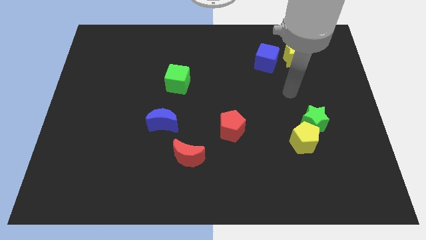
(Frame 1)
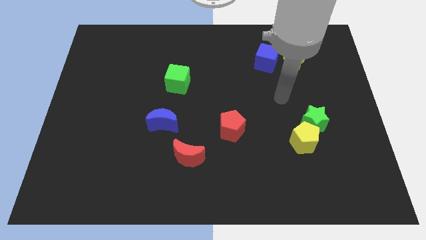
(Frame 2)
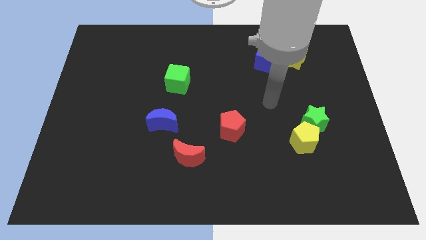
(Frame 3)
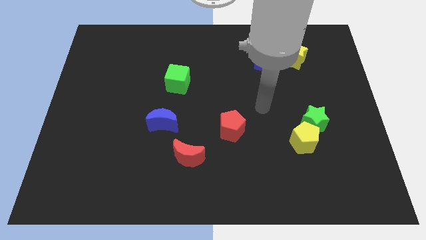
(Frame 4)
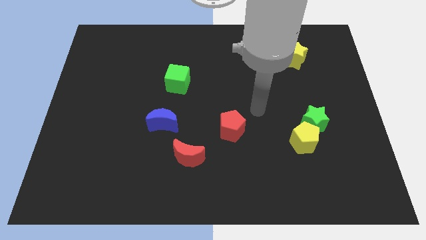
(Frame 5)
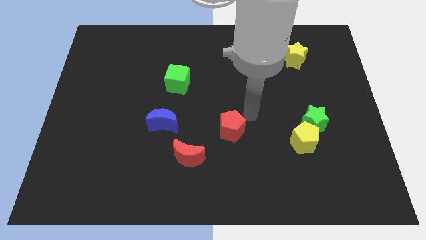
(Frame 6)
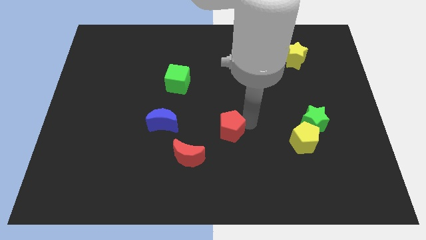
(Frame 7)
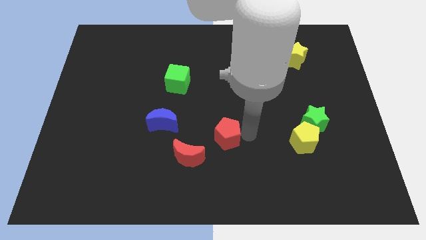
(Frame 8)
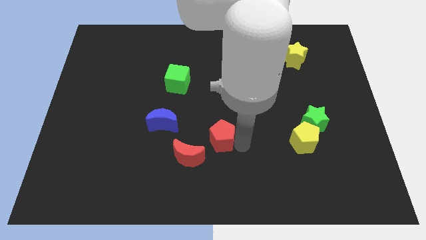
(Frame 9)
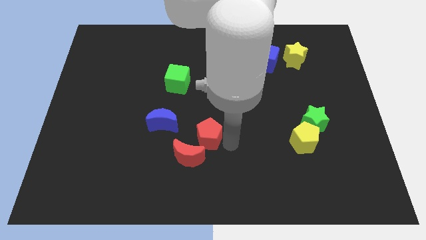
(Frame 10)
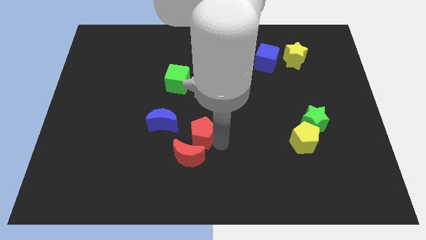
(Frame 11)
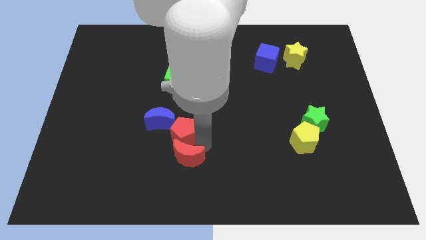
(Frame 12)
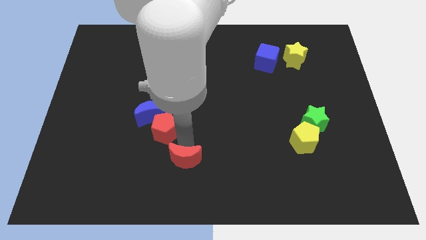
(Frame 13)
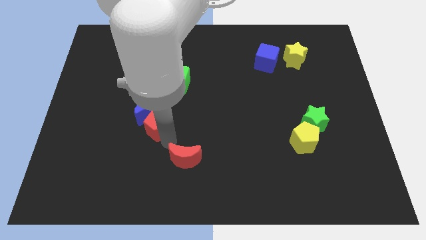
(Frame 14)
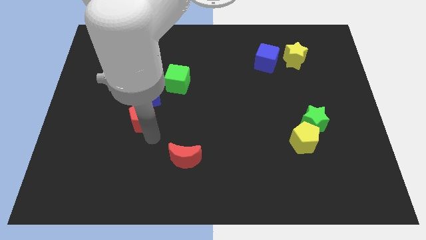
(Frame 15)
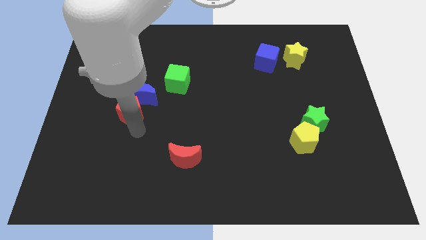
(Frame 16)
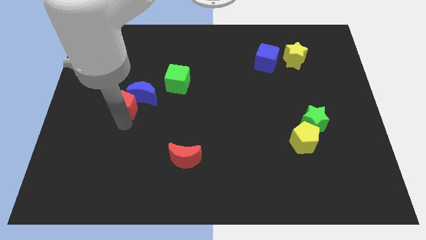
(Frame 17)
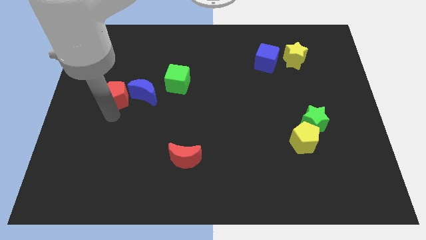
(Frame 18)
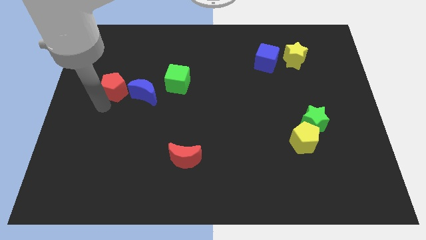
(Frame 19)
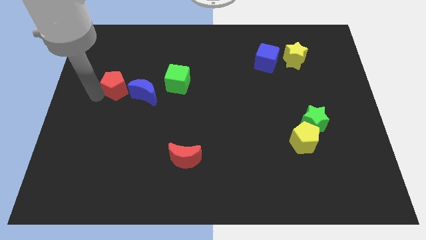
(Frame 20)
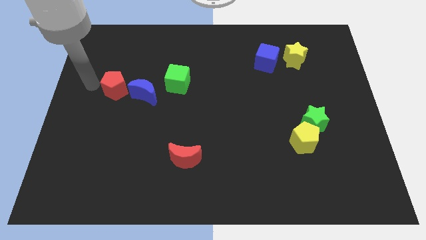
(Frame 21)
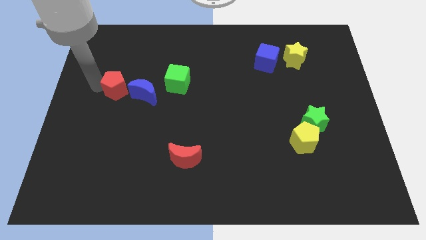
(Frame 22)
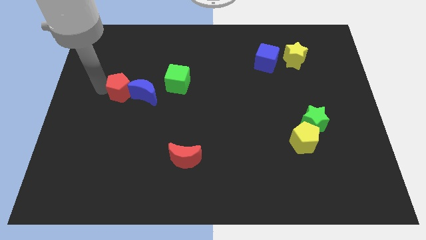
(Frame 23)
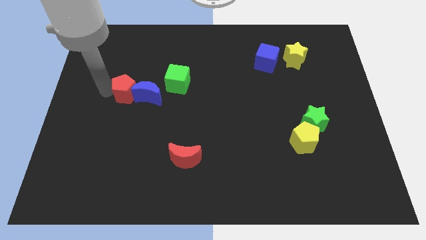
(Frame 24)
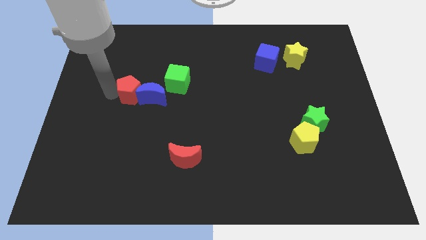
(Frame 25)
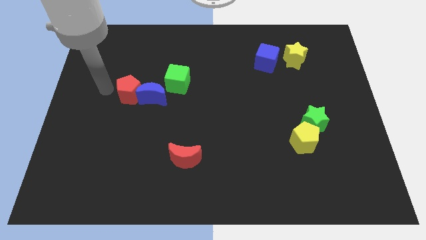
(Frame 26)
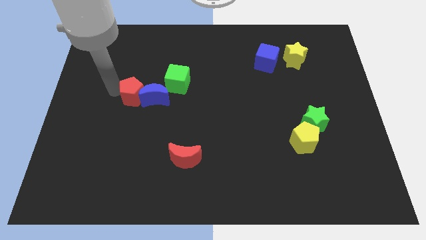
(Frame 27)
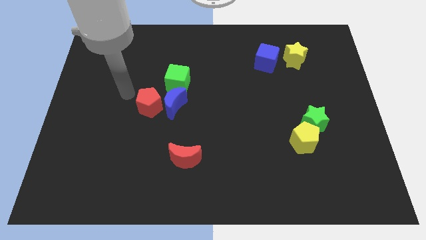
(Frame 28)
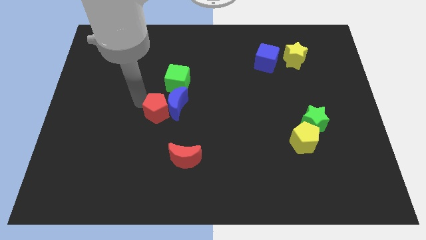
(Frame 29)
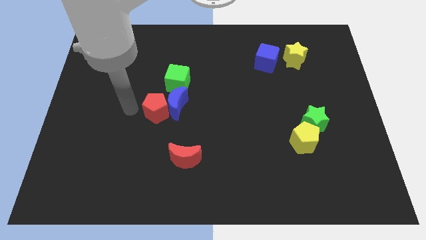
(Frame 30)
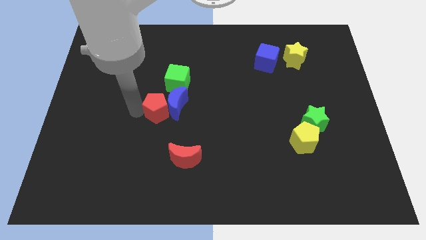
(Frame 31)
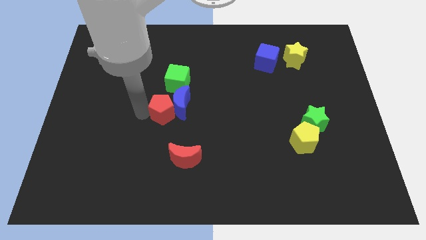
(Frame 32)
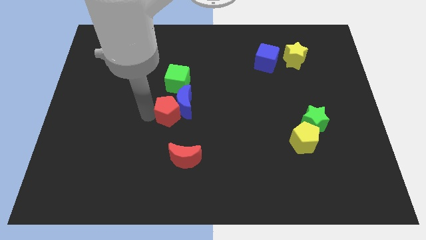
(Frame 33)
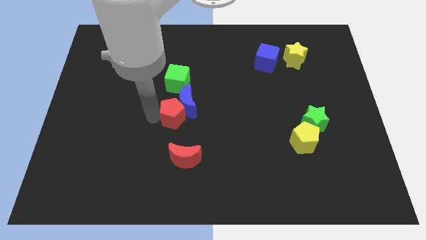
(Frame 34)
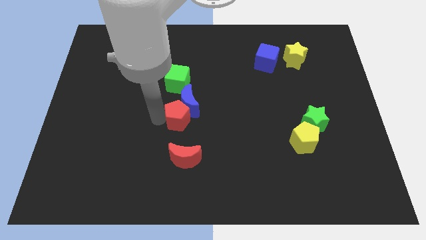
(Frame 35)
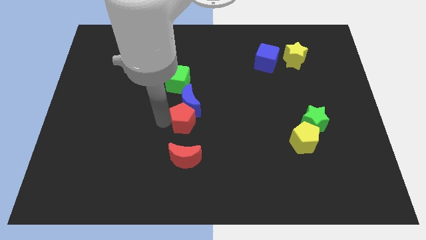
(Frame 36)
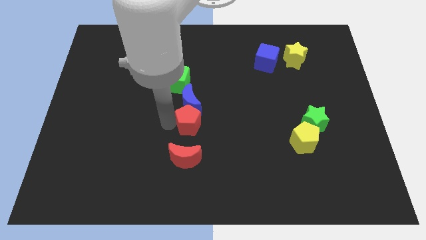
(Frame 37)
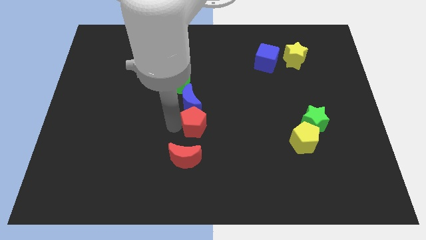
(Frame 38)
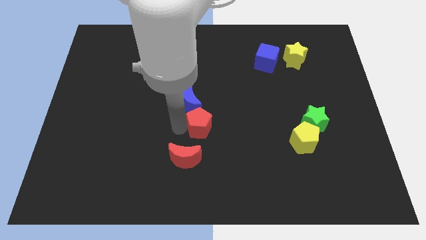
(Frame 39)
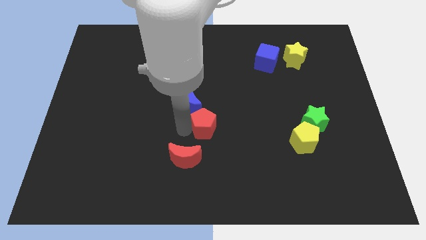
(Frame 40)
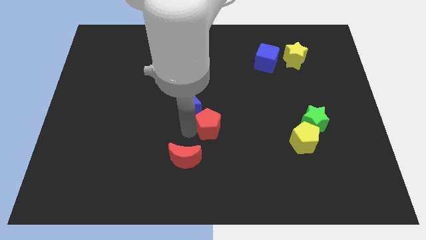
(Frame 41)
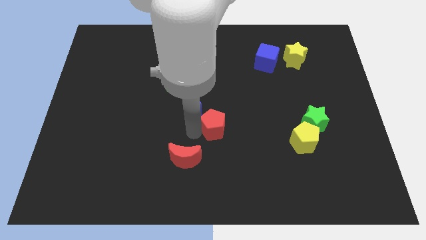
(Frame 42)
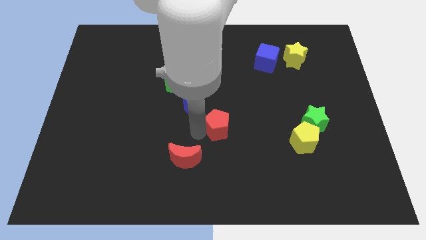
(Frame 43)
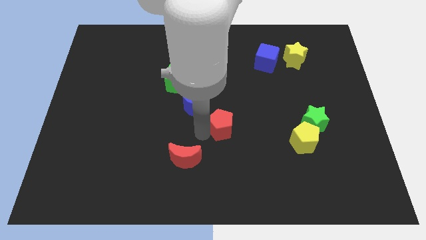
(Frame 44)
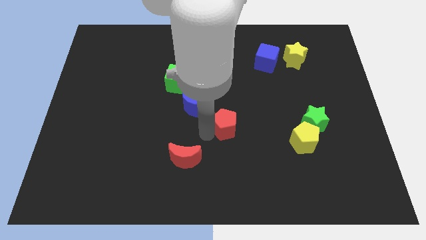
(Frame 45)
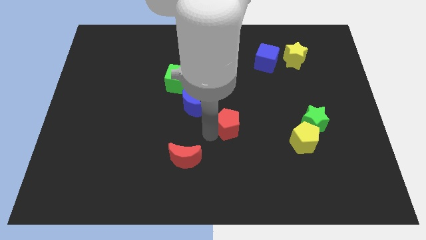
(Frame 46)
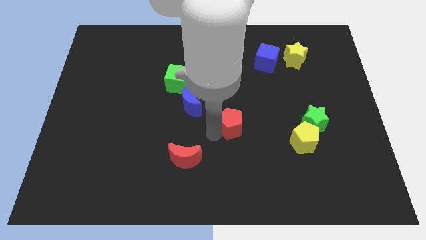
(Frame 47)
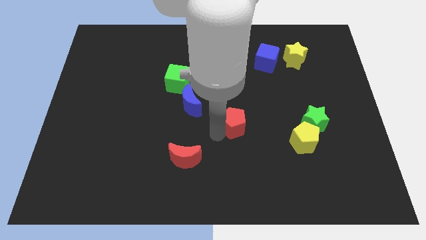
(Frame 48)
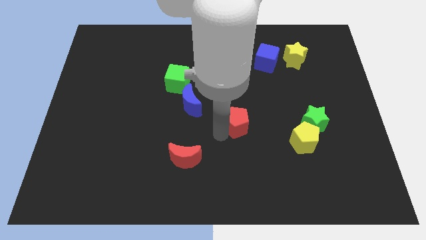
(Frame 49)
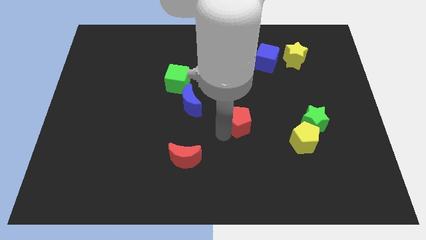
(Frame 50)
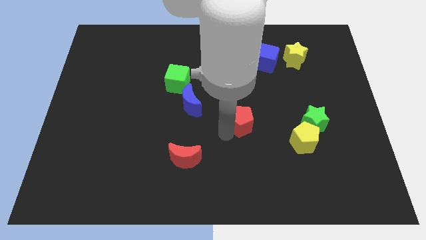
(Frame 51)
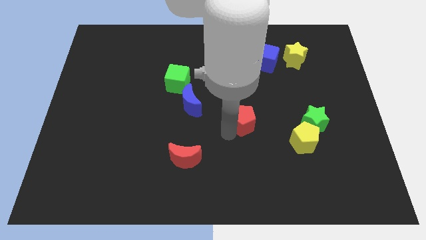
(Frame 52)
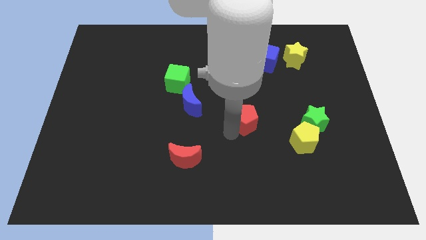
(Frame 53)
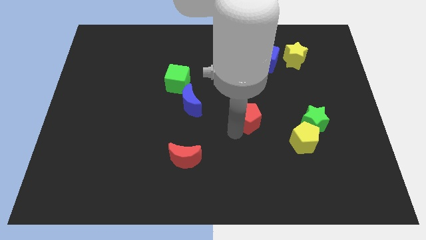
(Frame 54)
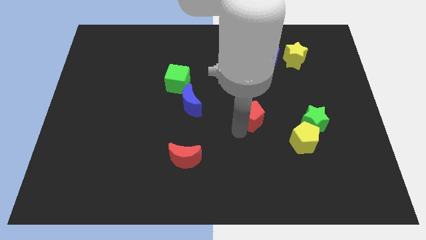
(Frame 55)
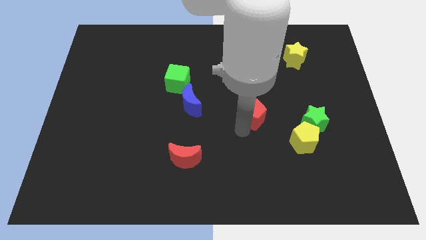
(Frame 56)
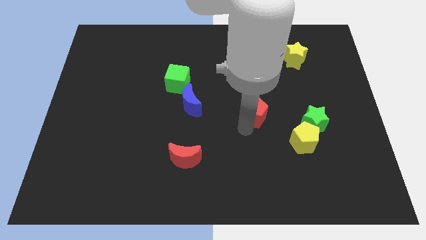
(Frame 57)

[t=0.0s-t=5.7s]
move the red pentagon a bit diagonally up and to the right

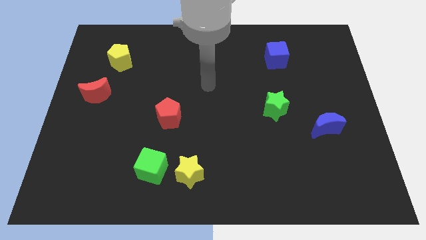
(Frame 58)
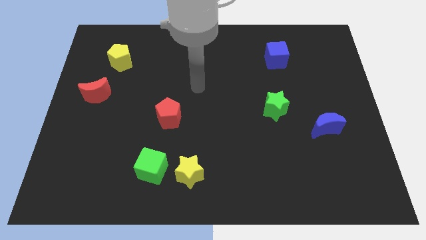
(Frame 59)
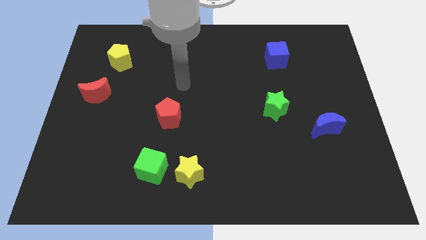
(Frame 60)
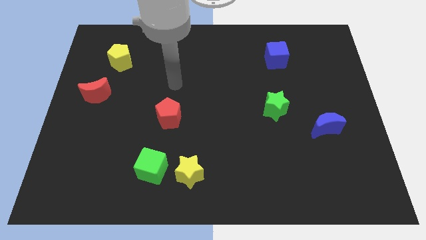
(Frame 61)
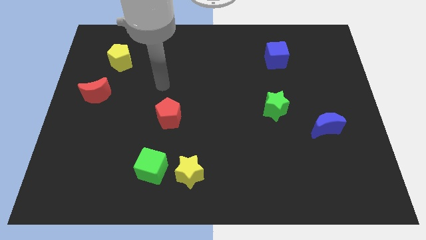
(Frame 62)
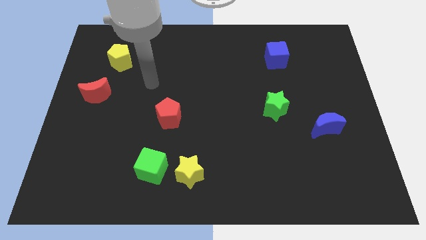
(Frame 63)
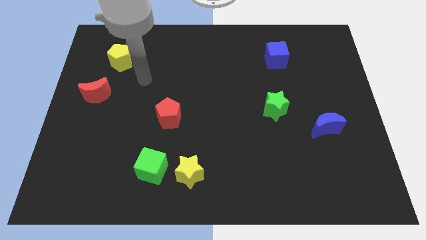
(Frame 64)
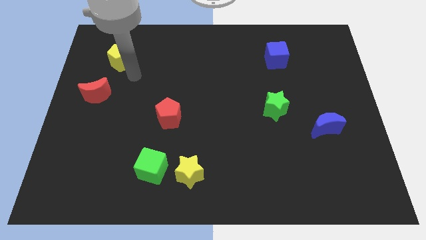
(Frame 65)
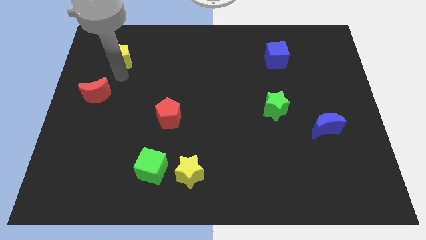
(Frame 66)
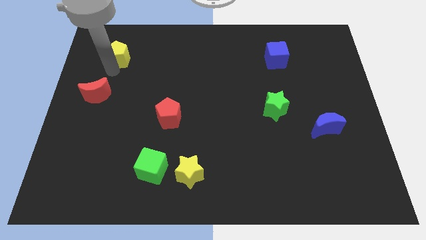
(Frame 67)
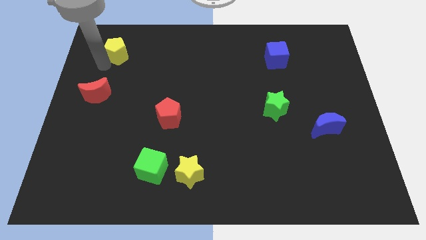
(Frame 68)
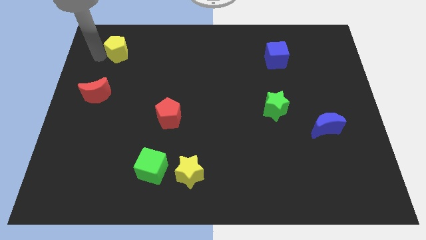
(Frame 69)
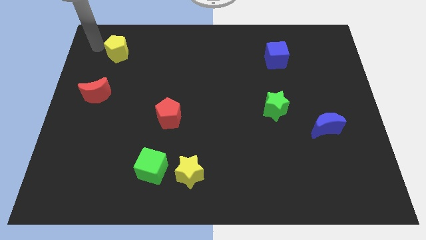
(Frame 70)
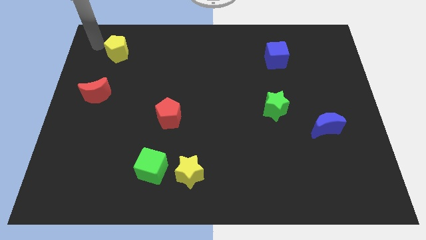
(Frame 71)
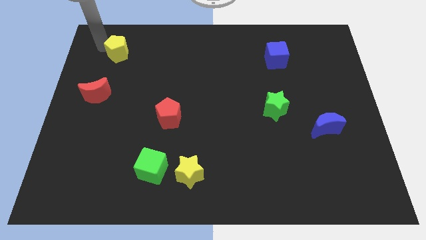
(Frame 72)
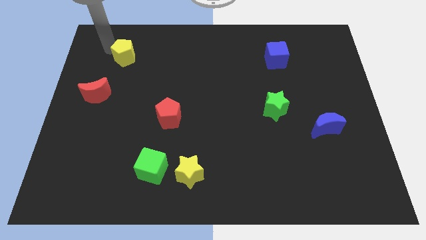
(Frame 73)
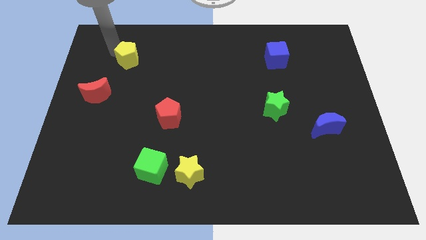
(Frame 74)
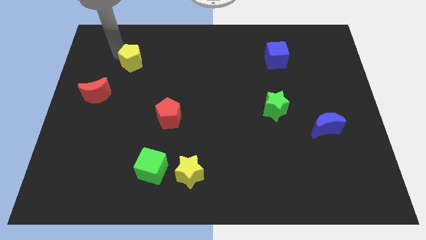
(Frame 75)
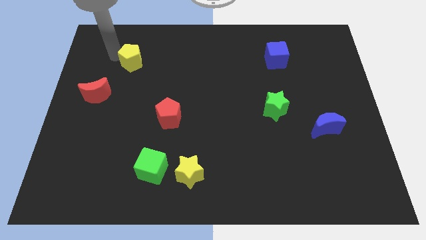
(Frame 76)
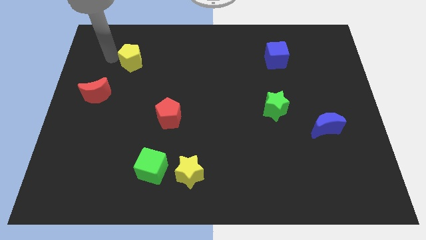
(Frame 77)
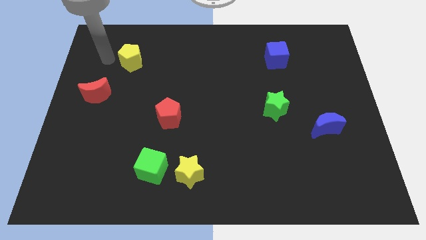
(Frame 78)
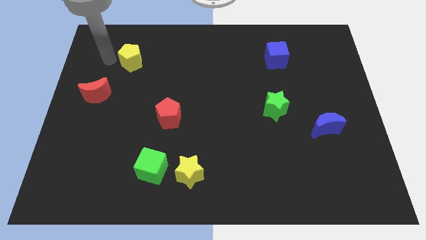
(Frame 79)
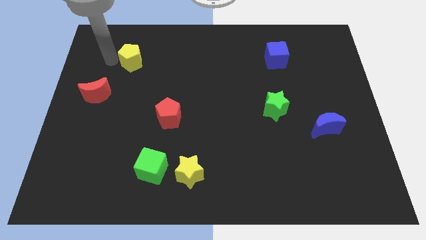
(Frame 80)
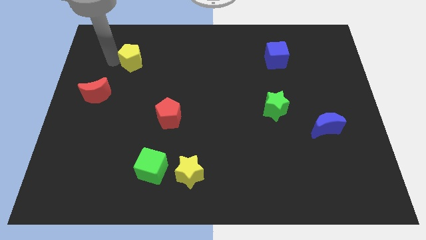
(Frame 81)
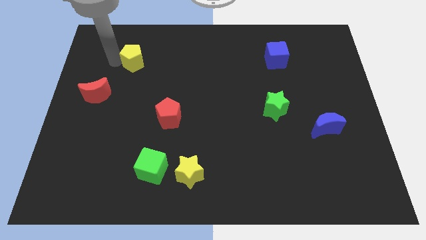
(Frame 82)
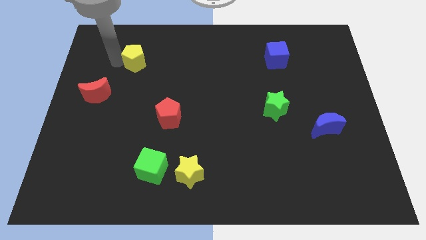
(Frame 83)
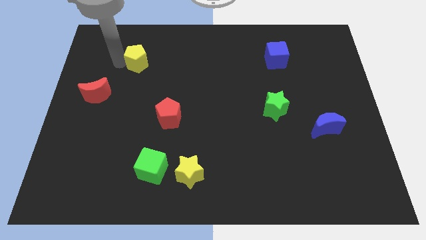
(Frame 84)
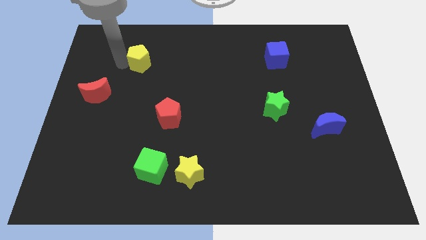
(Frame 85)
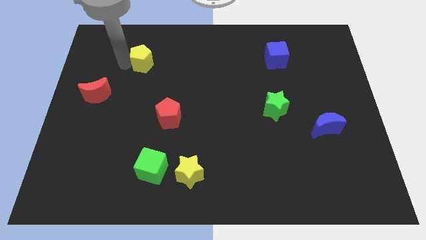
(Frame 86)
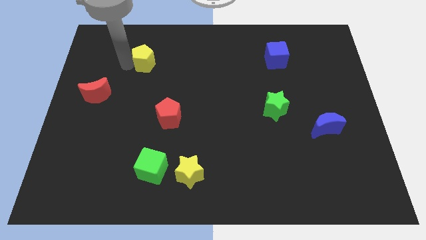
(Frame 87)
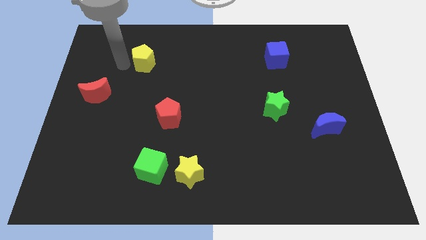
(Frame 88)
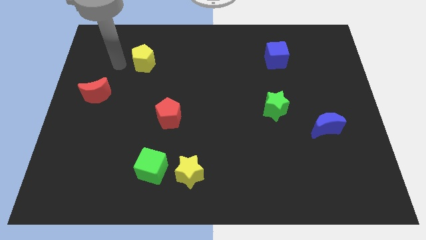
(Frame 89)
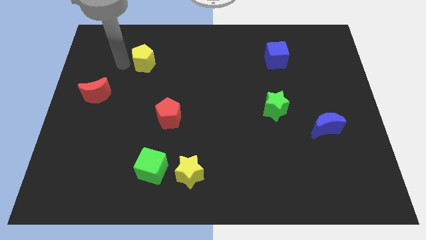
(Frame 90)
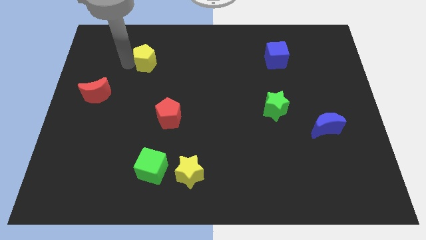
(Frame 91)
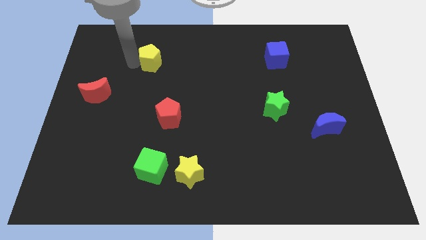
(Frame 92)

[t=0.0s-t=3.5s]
push the yellow pentagon a little right
